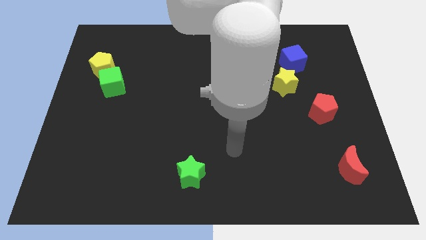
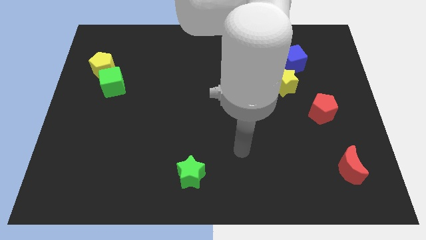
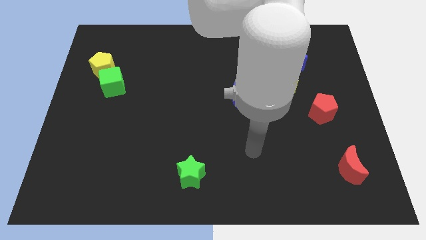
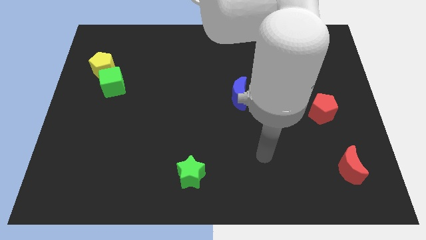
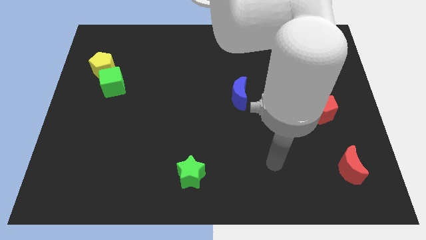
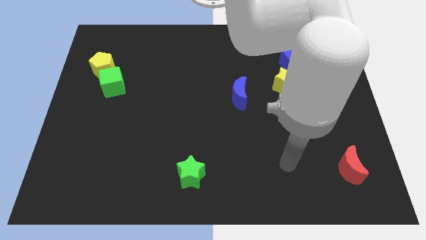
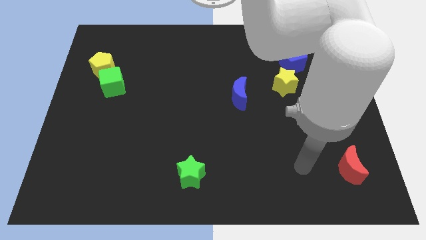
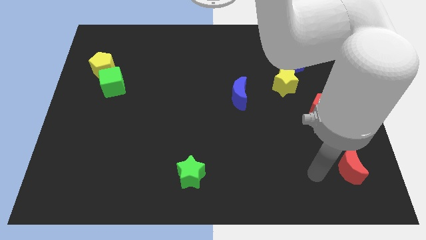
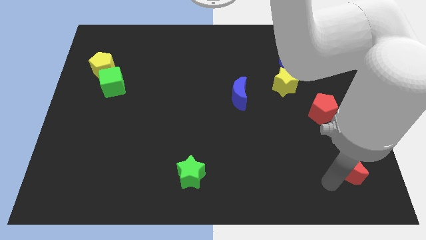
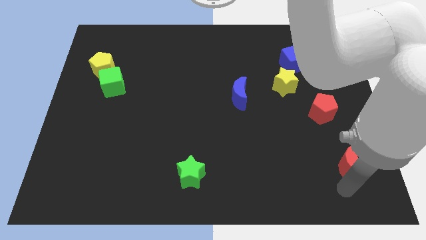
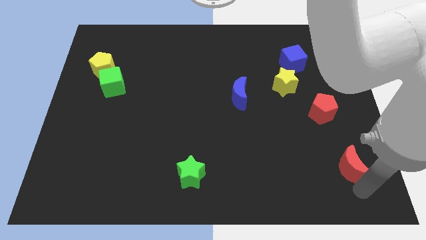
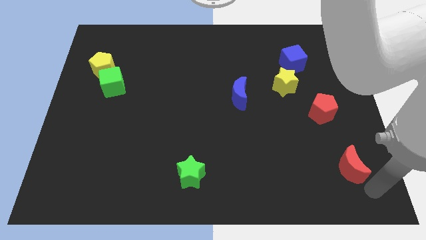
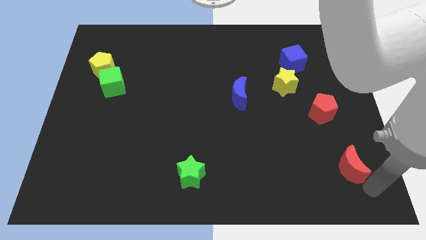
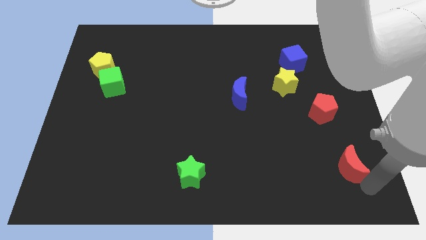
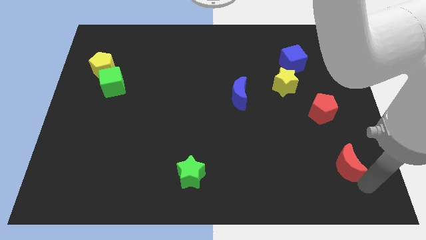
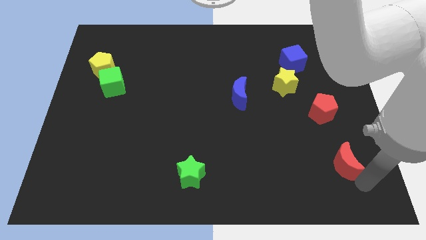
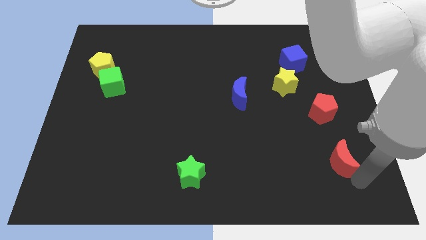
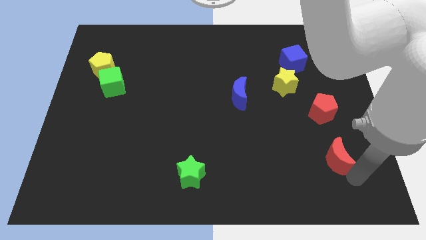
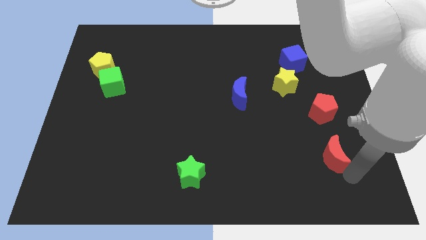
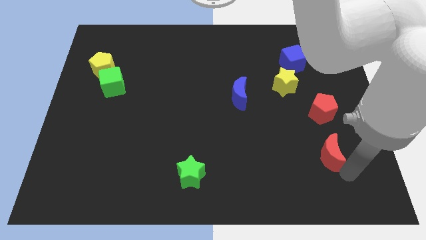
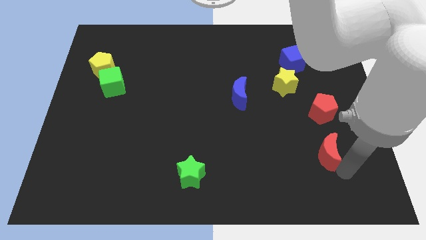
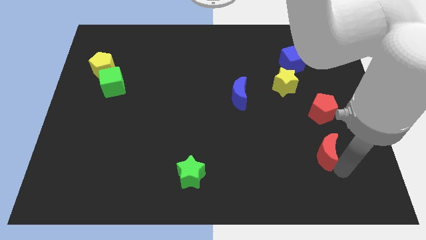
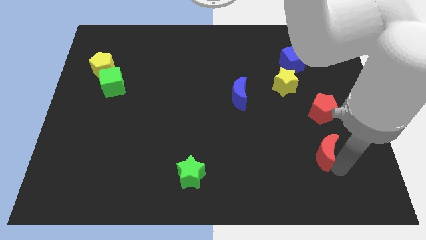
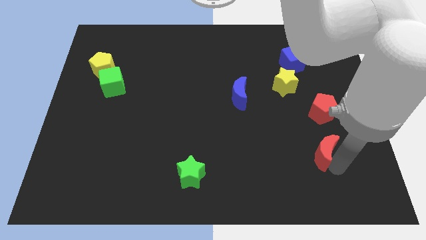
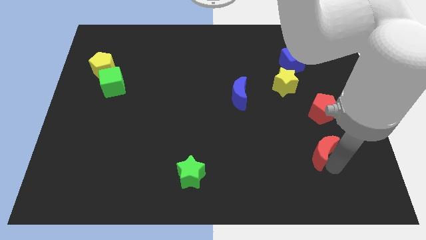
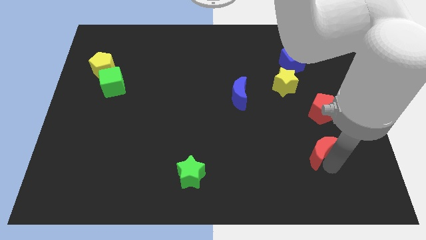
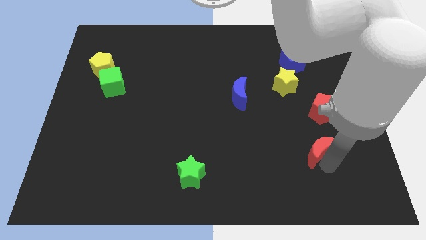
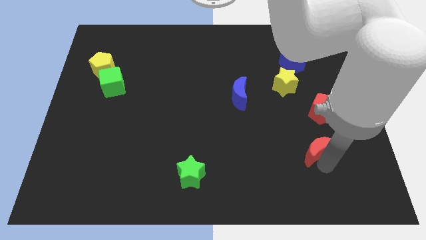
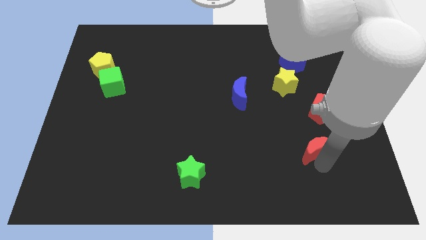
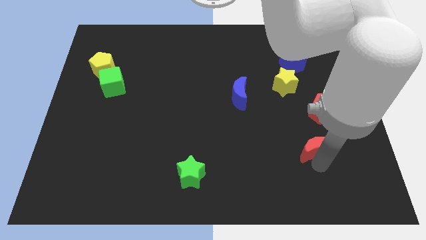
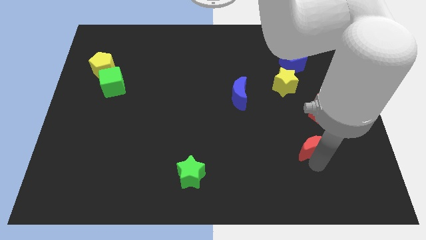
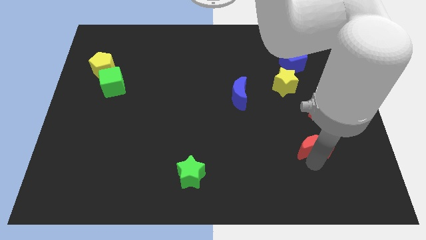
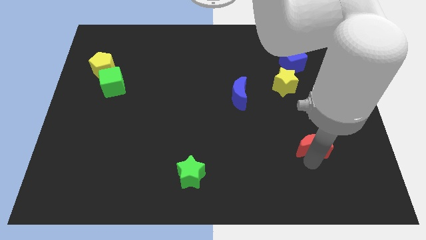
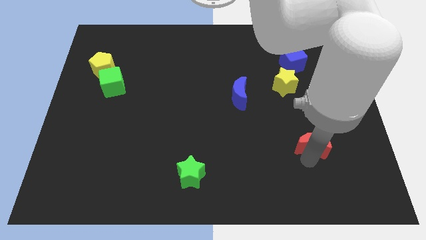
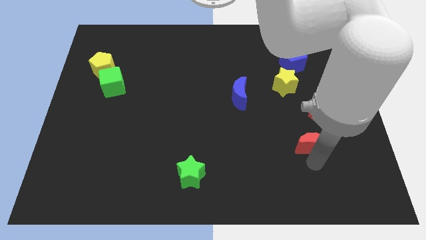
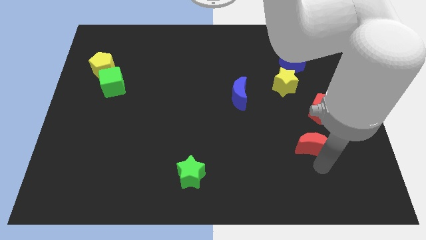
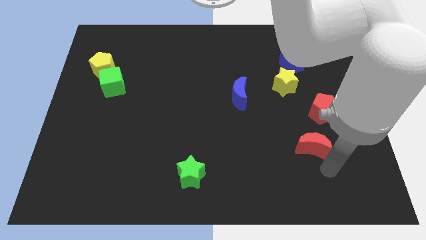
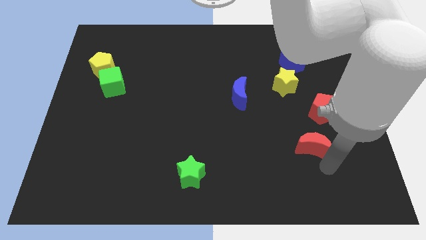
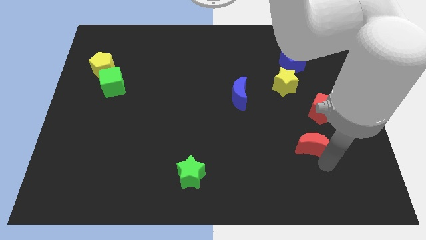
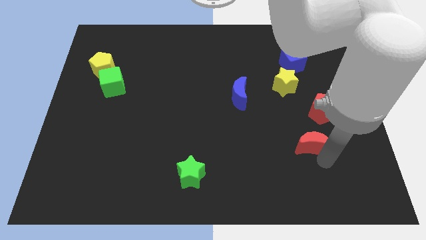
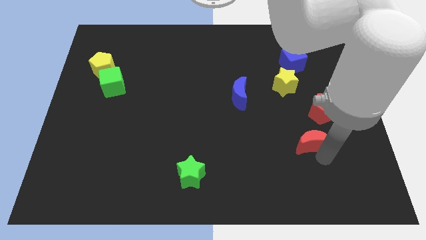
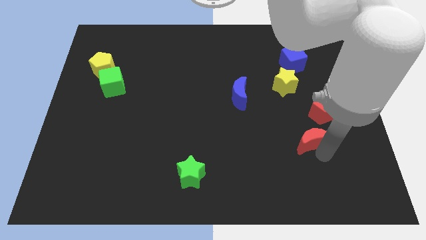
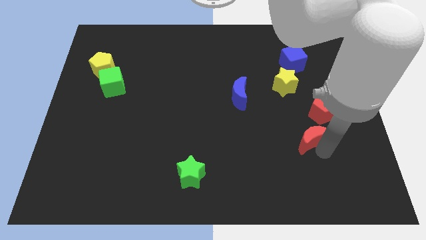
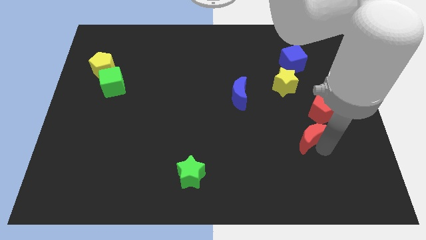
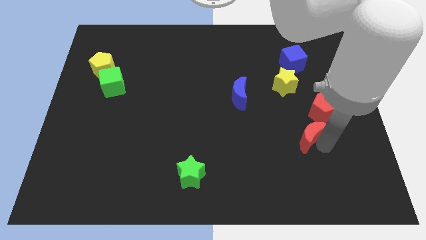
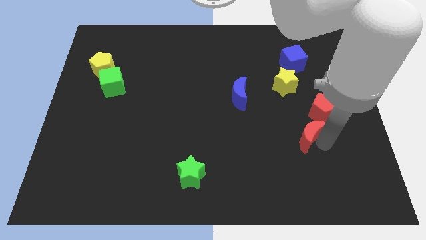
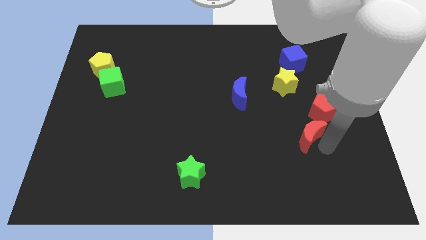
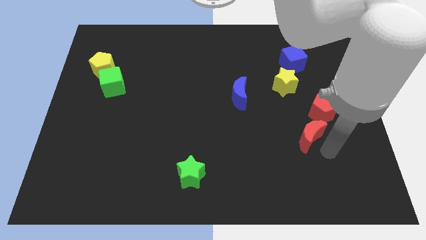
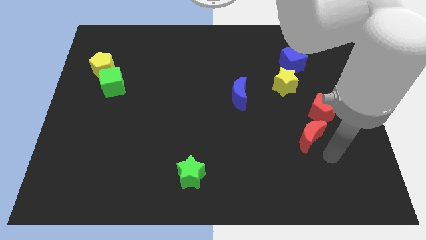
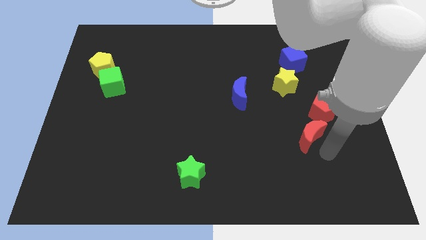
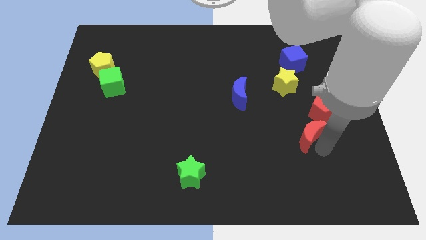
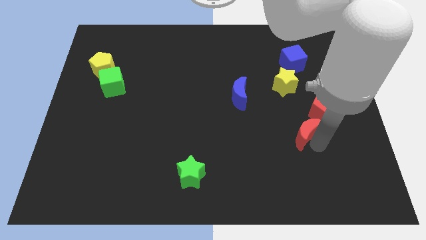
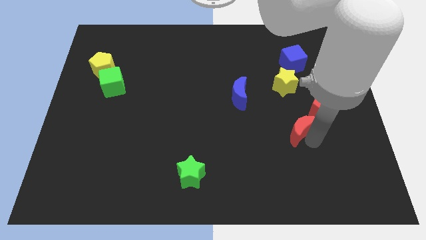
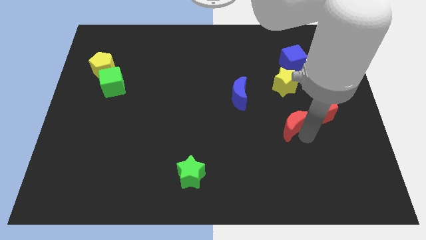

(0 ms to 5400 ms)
move the red moon left of the red pentagon

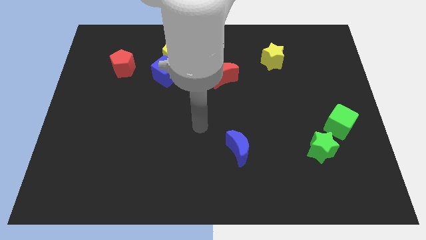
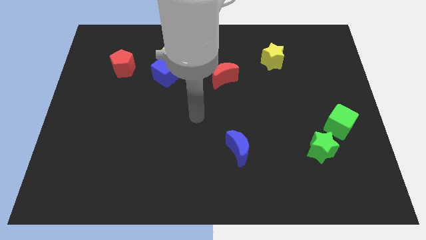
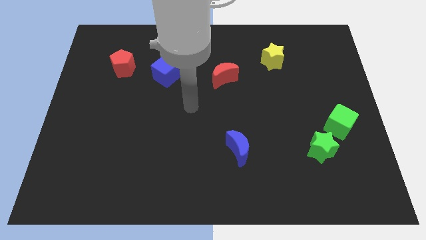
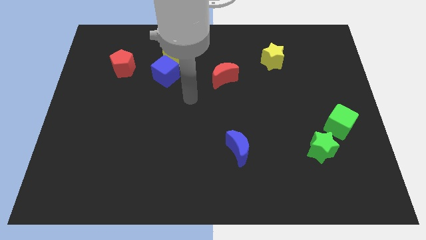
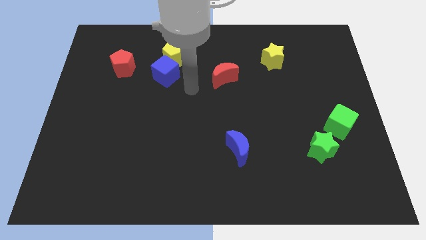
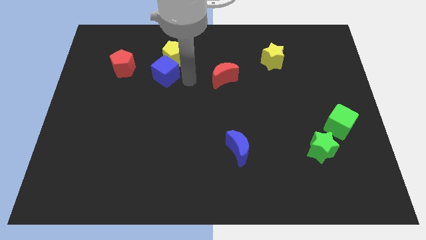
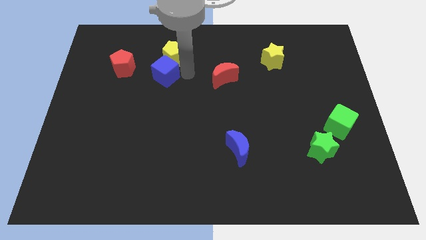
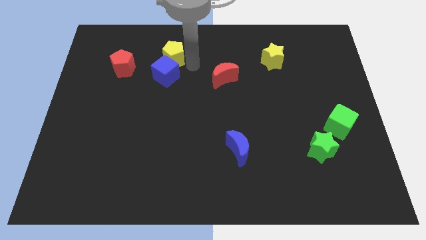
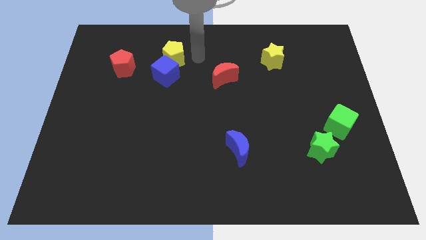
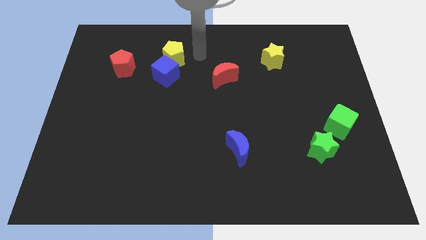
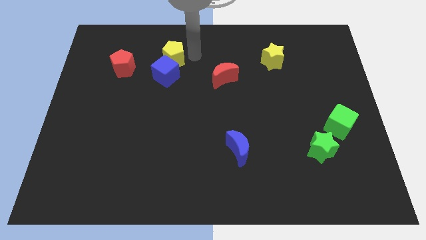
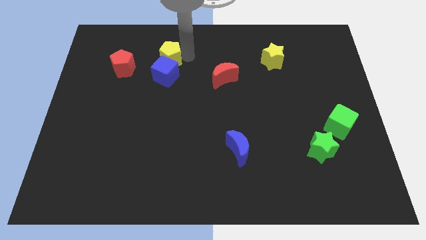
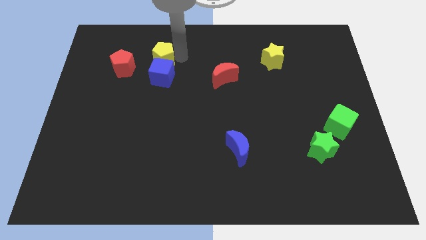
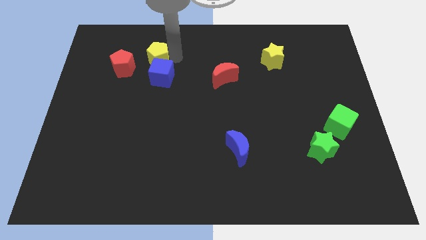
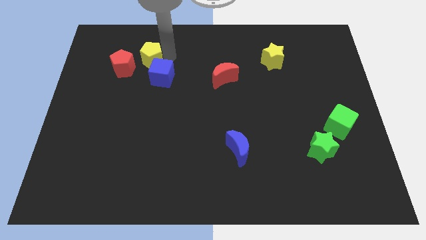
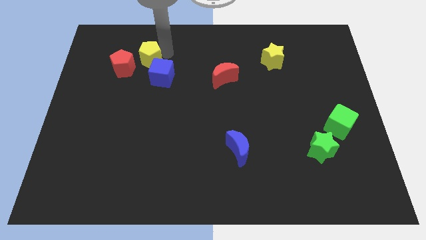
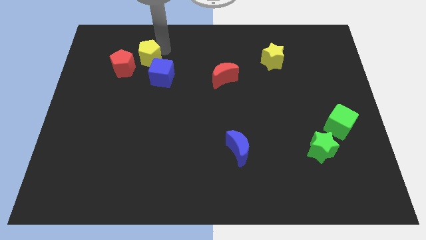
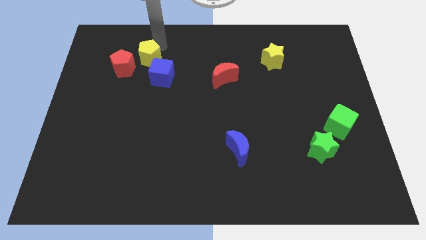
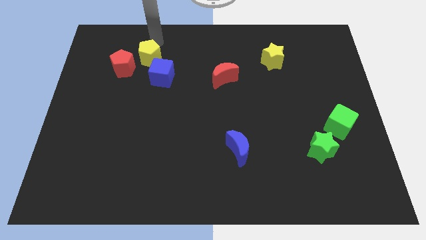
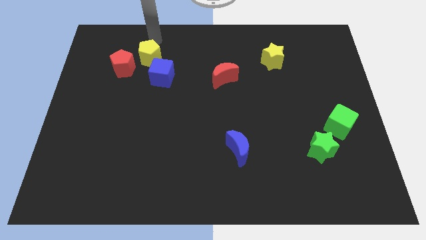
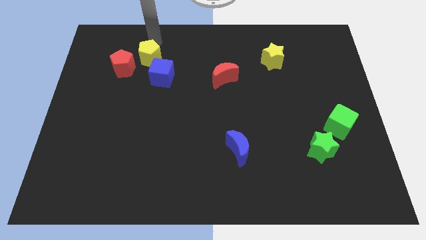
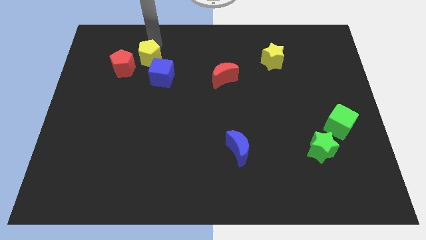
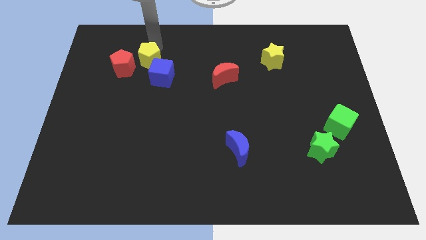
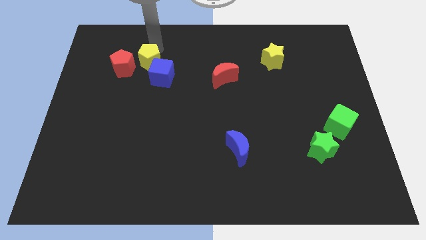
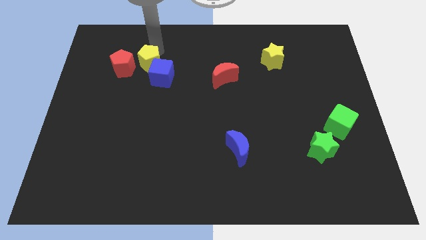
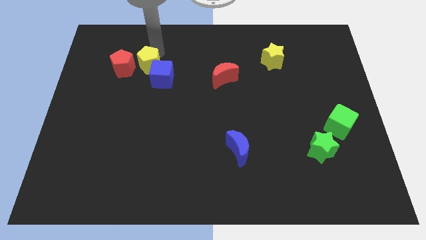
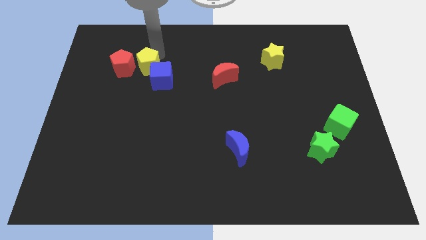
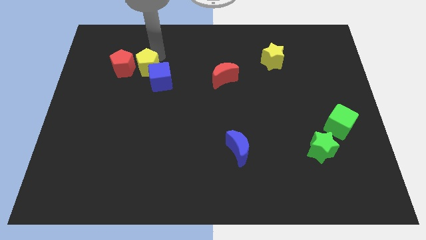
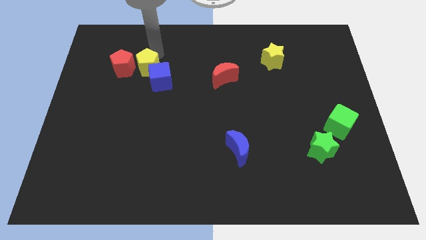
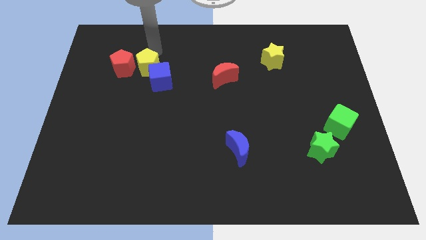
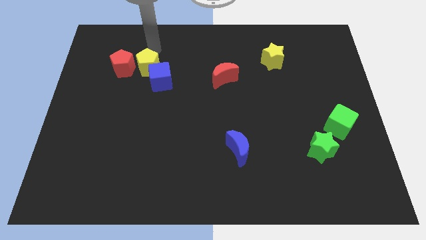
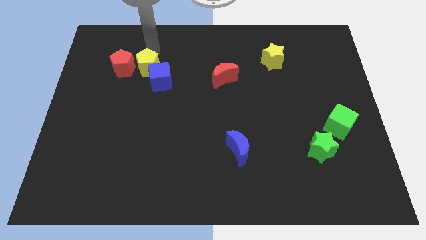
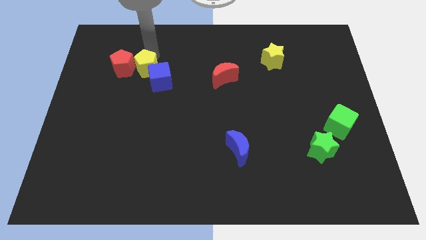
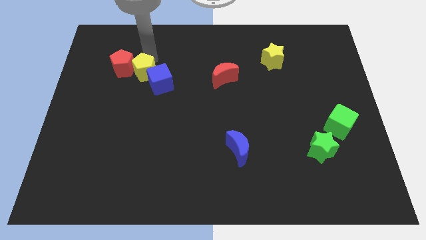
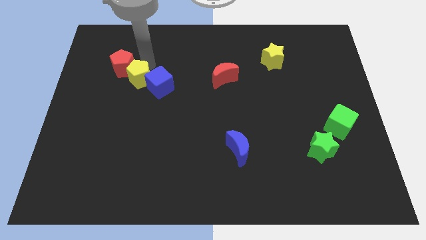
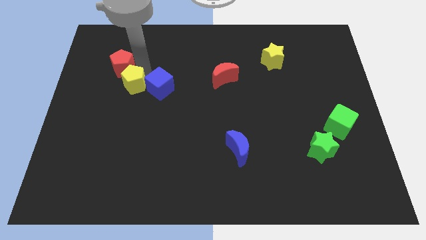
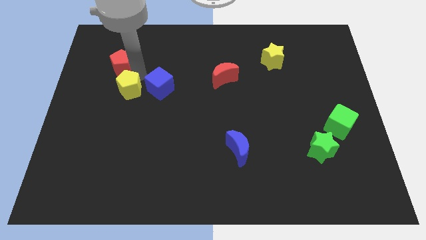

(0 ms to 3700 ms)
put the yellow pentagon to the bottom left side of the blue cube
